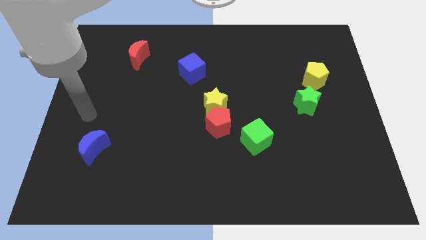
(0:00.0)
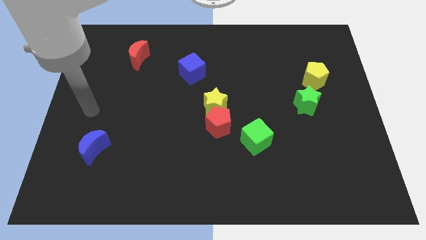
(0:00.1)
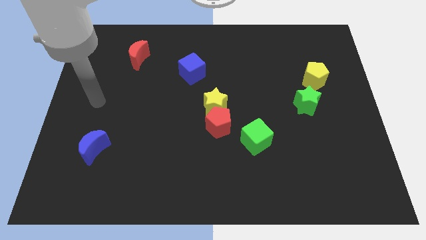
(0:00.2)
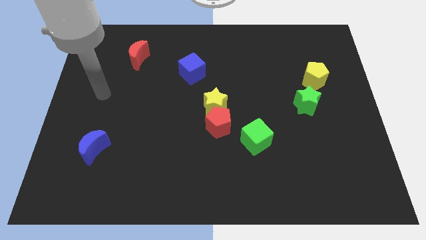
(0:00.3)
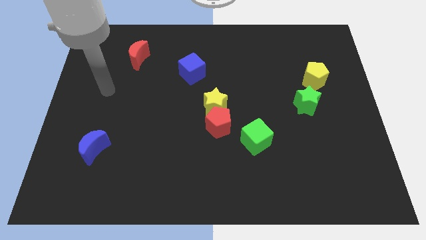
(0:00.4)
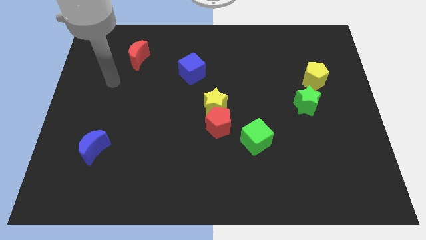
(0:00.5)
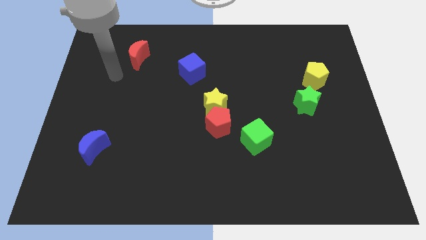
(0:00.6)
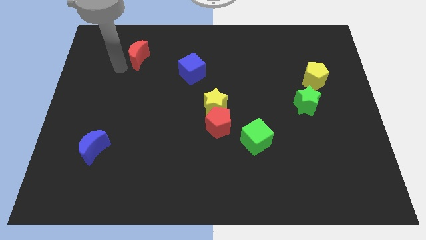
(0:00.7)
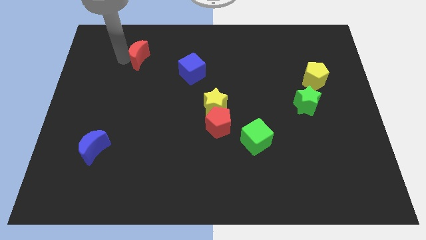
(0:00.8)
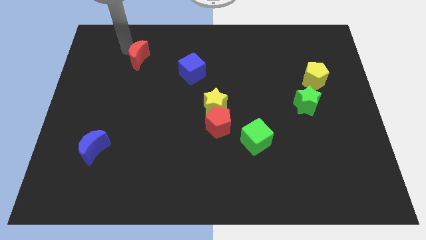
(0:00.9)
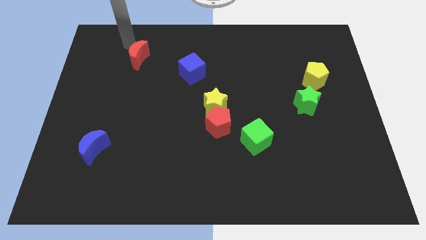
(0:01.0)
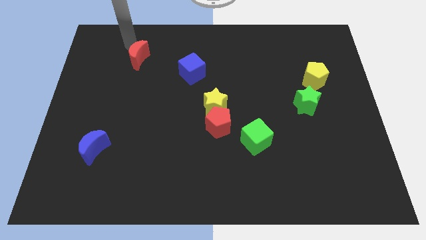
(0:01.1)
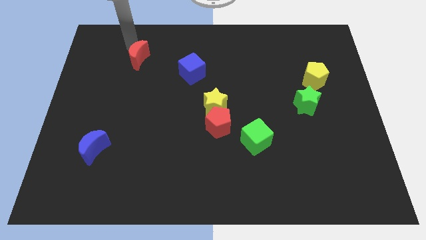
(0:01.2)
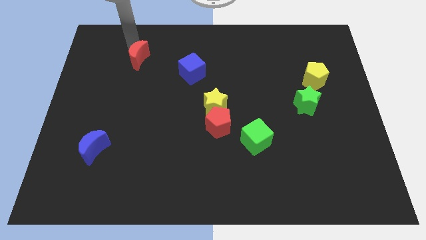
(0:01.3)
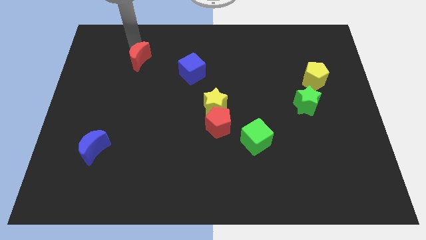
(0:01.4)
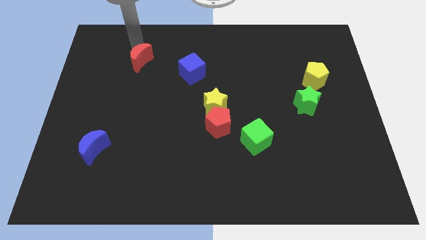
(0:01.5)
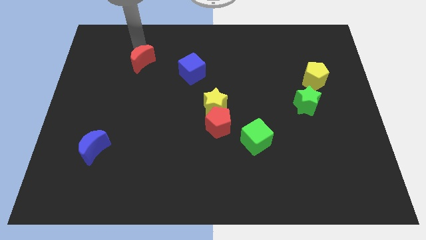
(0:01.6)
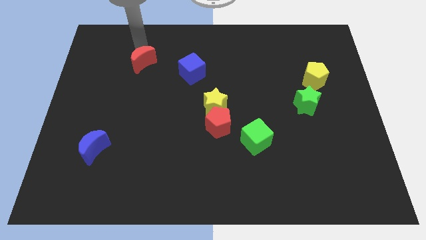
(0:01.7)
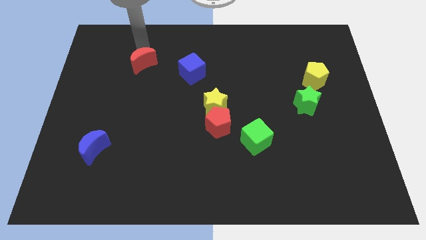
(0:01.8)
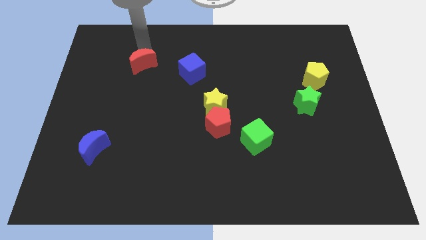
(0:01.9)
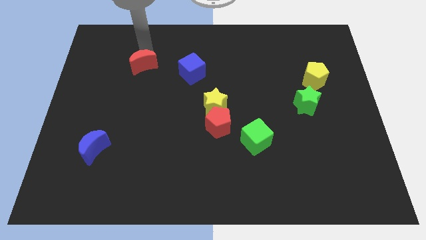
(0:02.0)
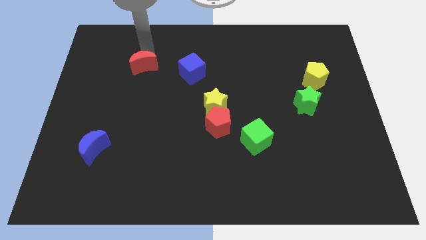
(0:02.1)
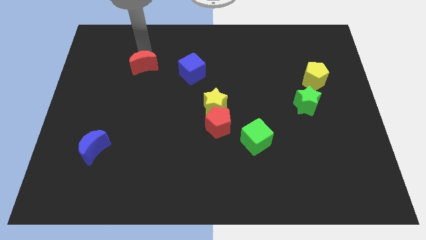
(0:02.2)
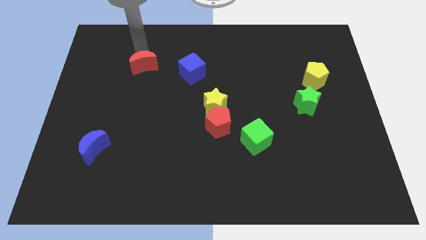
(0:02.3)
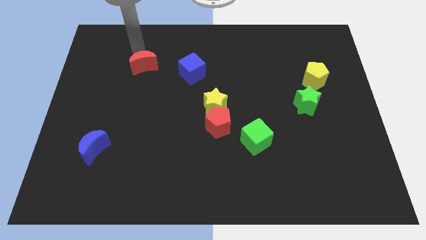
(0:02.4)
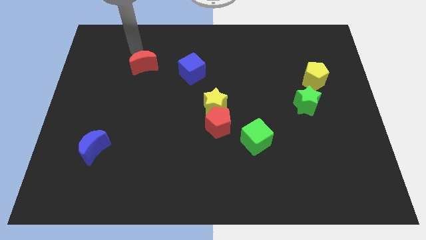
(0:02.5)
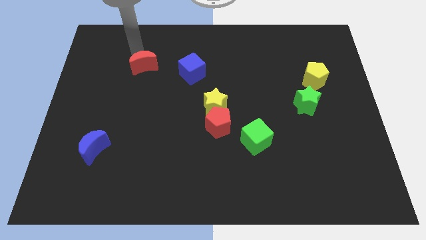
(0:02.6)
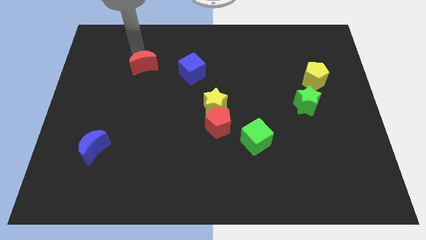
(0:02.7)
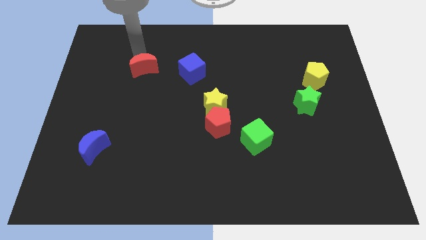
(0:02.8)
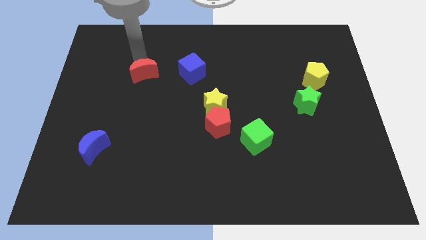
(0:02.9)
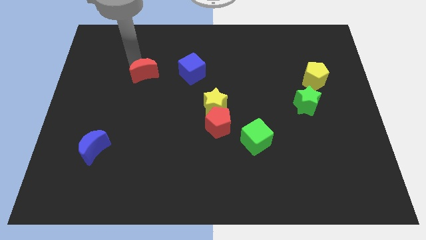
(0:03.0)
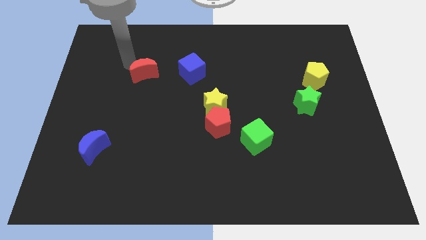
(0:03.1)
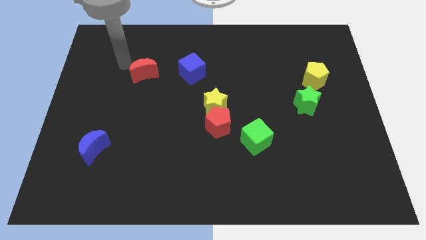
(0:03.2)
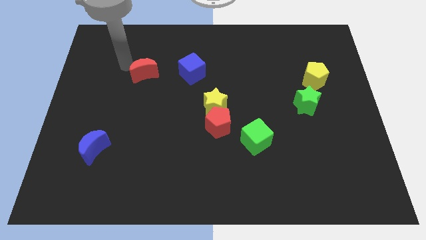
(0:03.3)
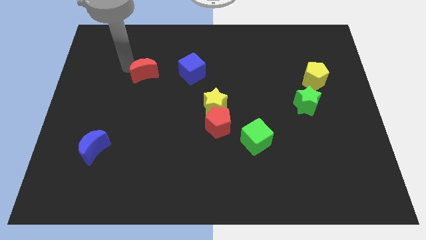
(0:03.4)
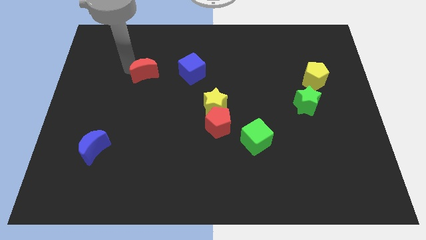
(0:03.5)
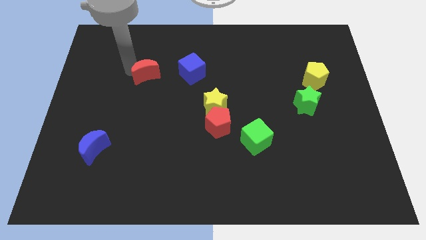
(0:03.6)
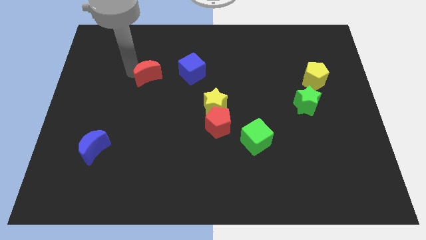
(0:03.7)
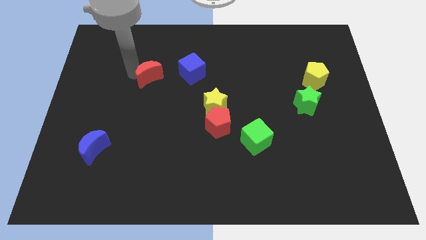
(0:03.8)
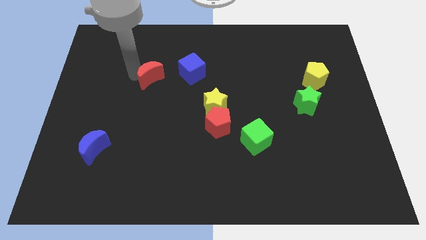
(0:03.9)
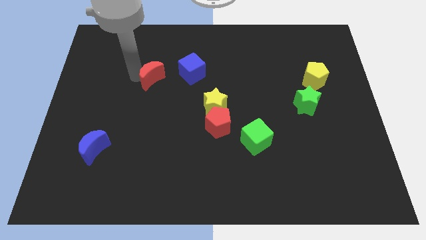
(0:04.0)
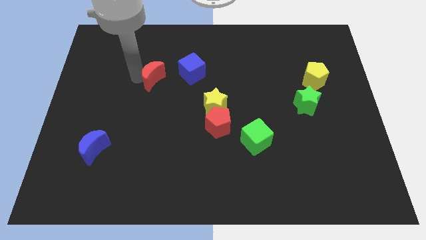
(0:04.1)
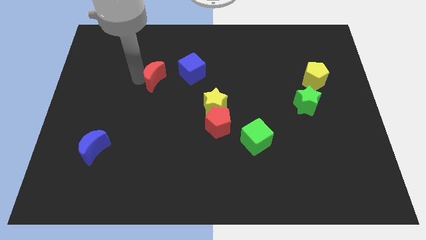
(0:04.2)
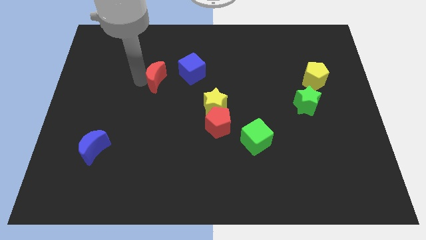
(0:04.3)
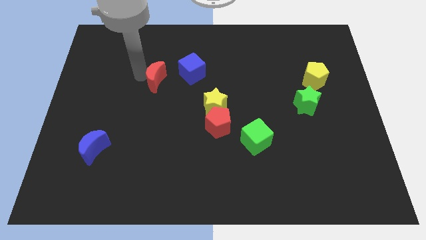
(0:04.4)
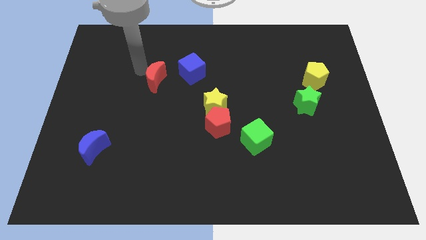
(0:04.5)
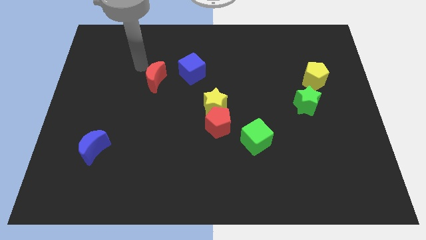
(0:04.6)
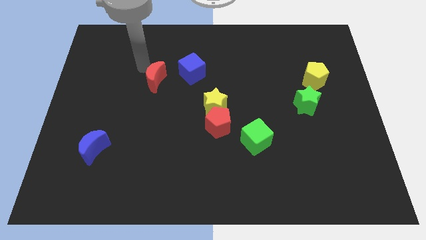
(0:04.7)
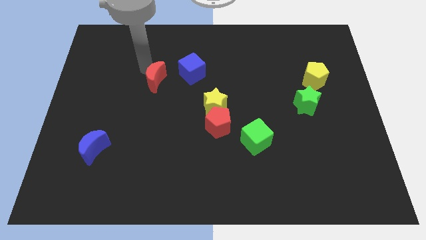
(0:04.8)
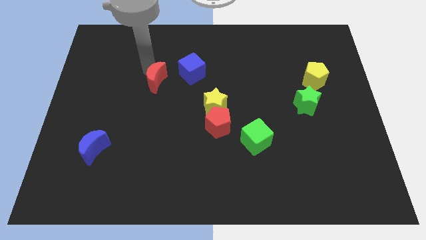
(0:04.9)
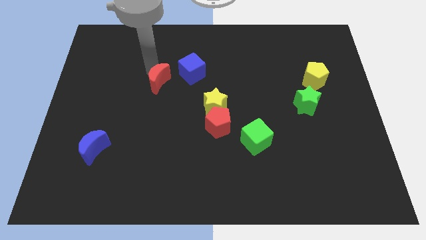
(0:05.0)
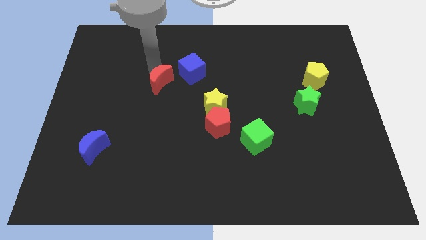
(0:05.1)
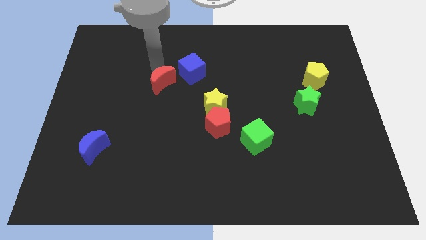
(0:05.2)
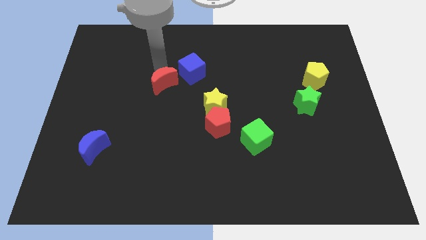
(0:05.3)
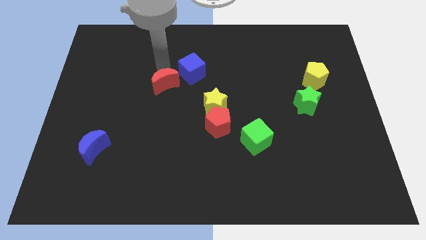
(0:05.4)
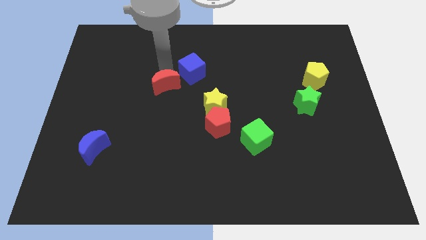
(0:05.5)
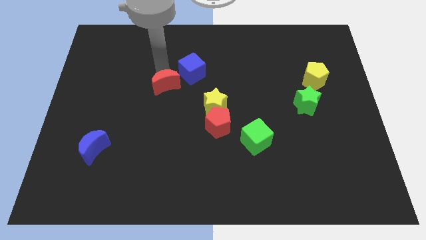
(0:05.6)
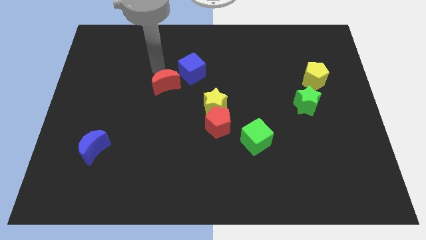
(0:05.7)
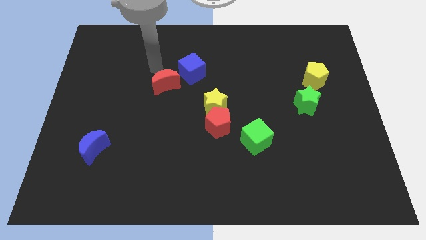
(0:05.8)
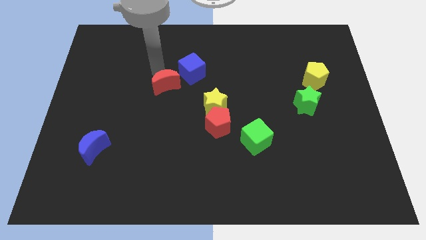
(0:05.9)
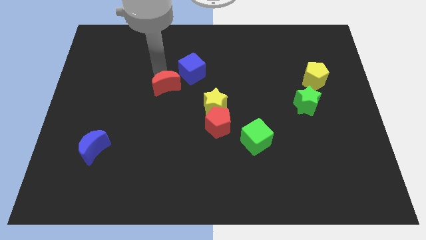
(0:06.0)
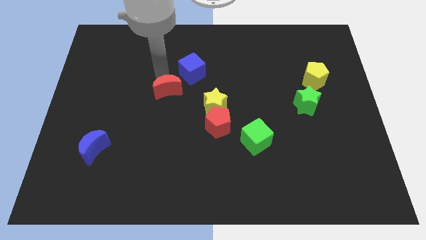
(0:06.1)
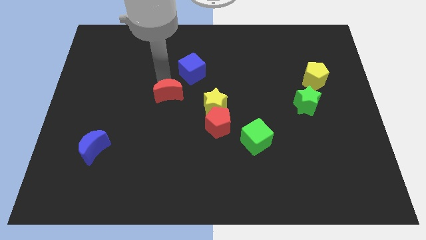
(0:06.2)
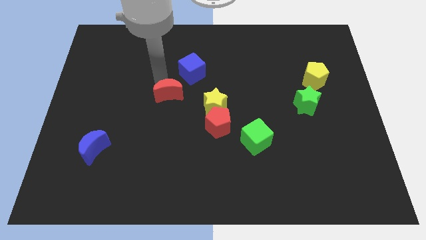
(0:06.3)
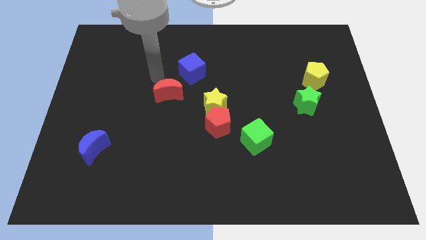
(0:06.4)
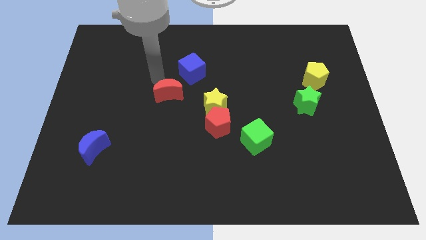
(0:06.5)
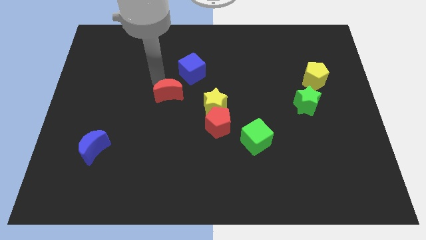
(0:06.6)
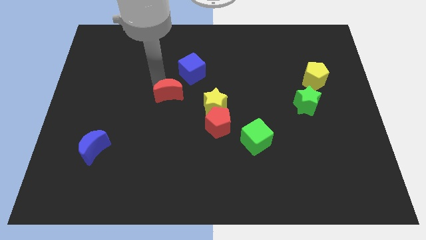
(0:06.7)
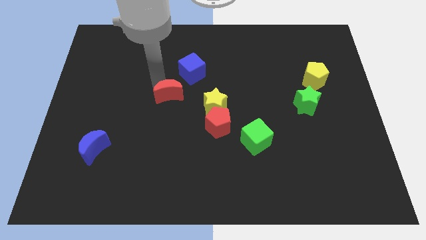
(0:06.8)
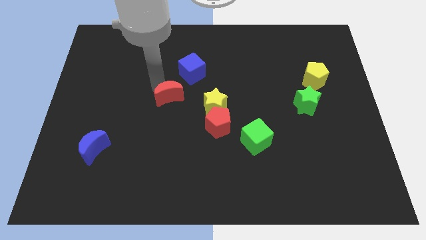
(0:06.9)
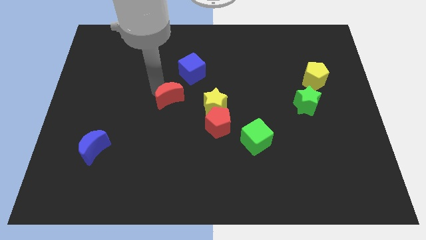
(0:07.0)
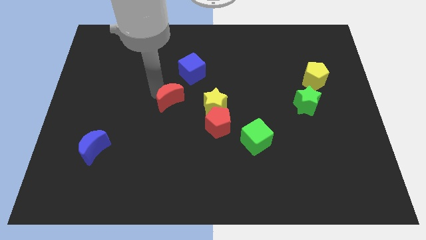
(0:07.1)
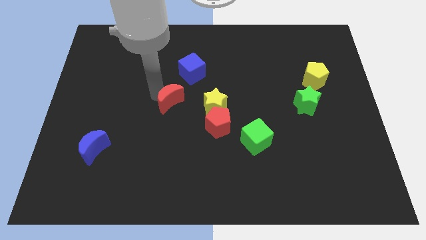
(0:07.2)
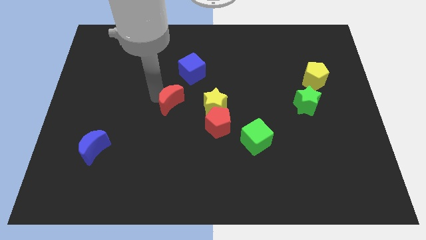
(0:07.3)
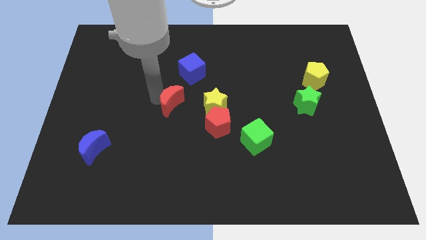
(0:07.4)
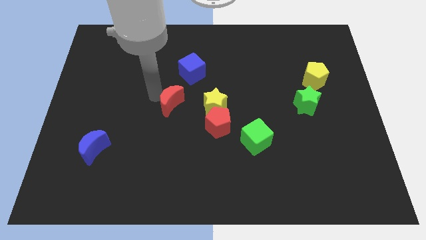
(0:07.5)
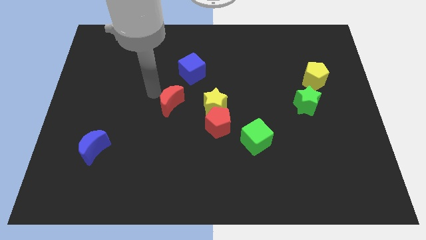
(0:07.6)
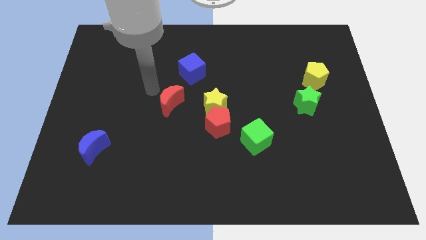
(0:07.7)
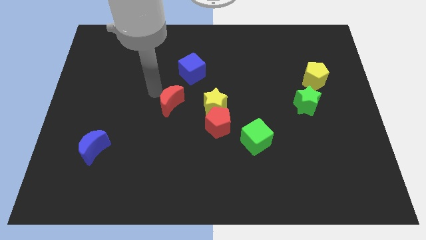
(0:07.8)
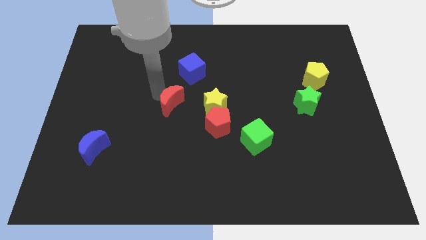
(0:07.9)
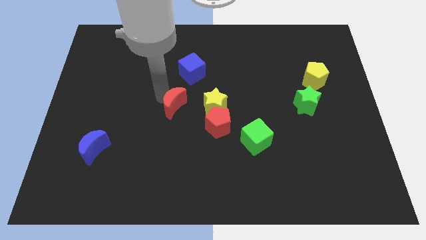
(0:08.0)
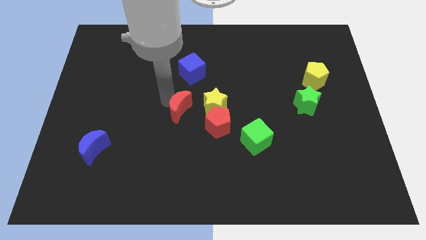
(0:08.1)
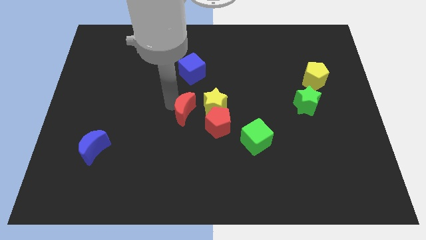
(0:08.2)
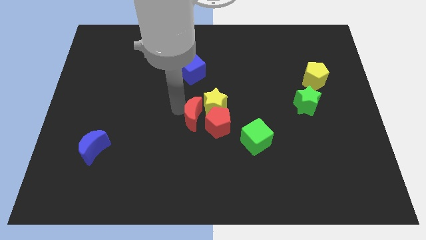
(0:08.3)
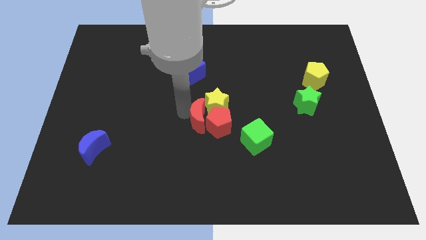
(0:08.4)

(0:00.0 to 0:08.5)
put the red moon close to the red pentagon
